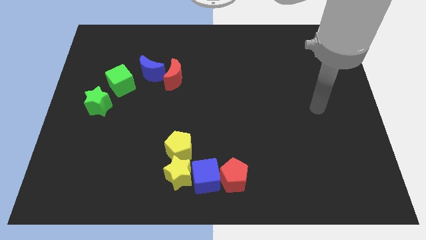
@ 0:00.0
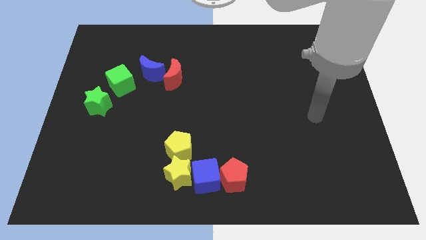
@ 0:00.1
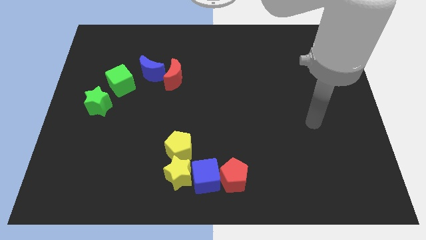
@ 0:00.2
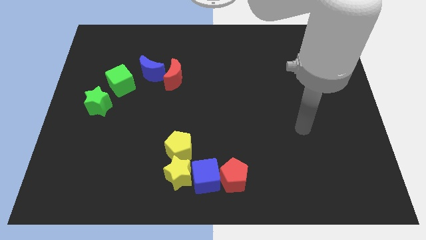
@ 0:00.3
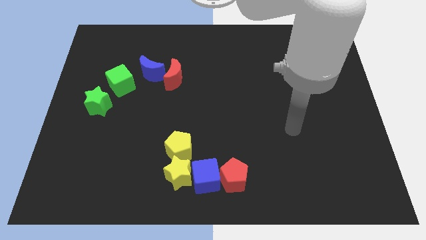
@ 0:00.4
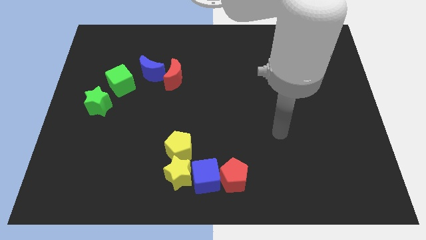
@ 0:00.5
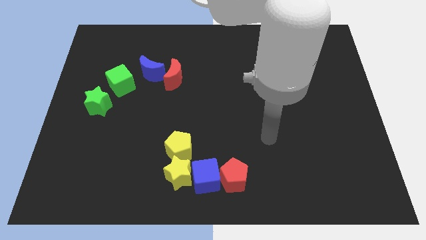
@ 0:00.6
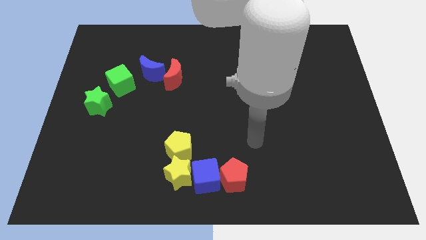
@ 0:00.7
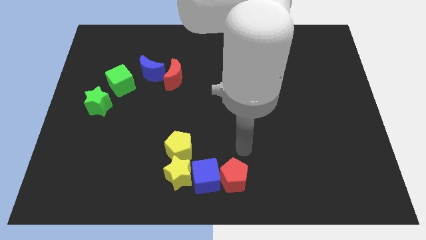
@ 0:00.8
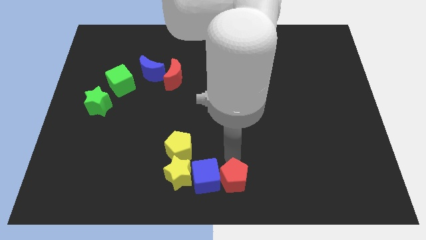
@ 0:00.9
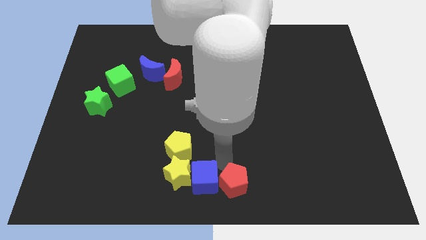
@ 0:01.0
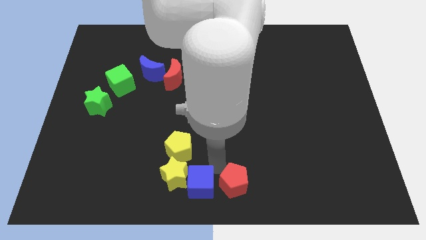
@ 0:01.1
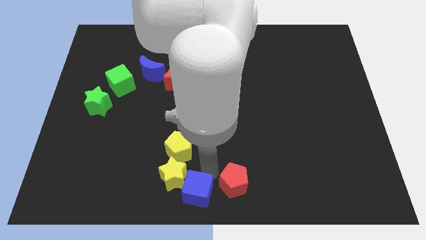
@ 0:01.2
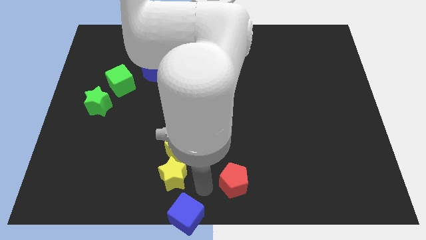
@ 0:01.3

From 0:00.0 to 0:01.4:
separate the red pentagon from the blue cube

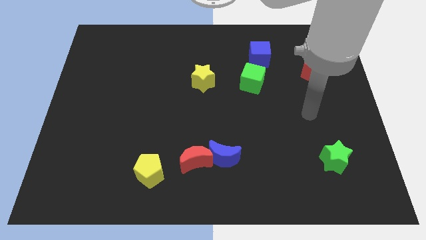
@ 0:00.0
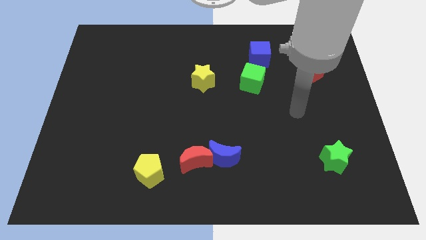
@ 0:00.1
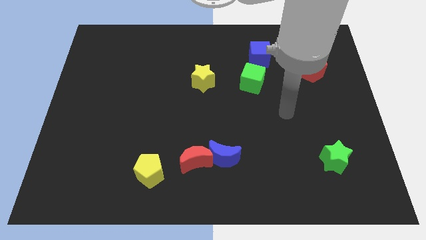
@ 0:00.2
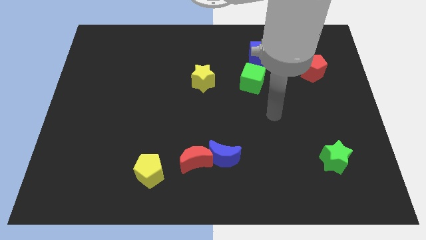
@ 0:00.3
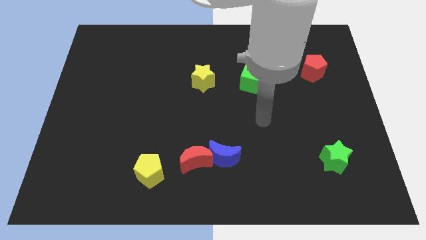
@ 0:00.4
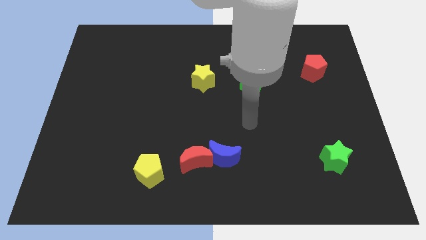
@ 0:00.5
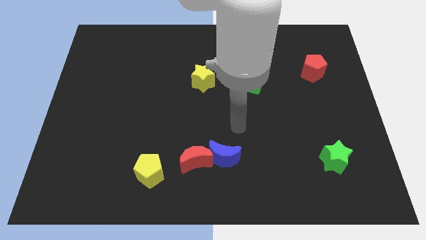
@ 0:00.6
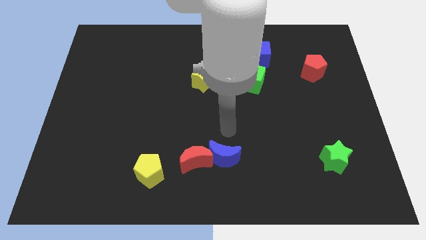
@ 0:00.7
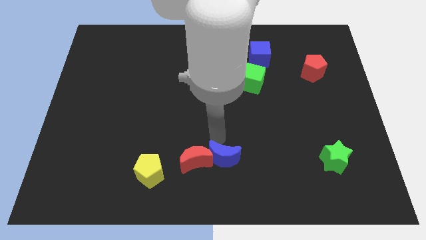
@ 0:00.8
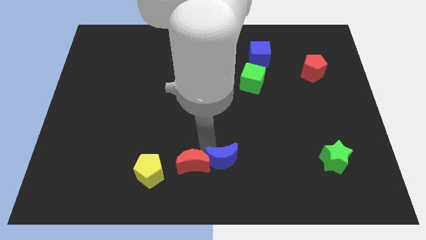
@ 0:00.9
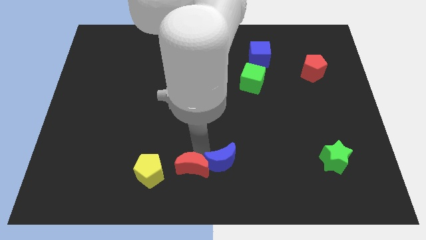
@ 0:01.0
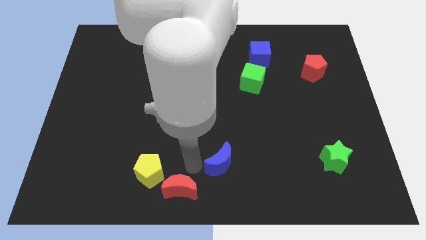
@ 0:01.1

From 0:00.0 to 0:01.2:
separate the blue moon from the red moon

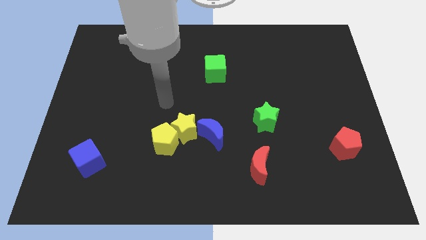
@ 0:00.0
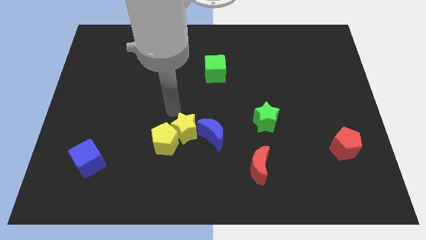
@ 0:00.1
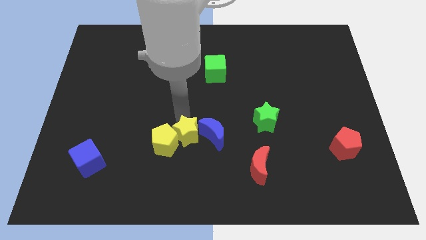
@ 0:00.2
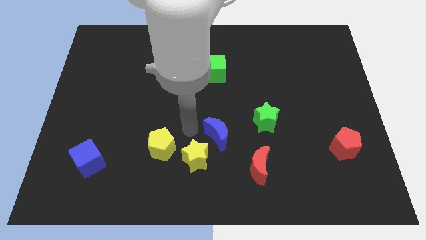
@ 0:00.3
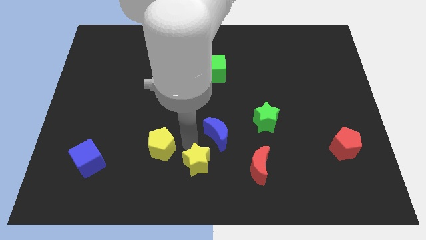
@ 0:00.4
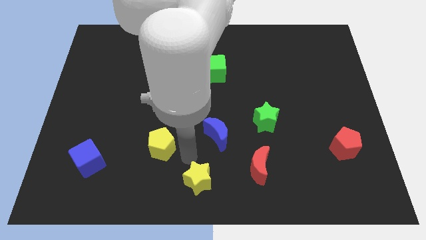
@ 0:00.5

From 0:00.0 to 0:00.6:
move the yellow pentagon away from the yellow star

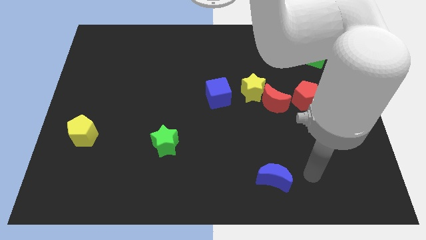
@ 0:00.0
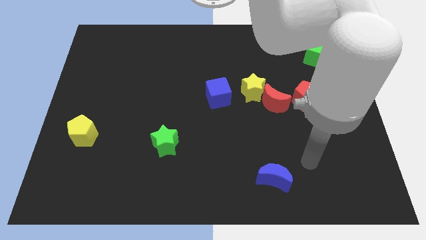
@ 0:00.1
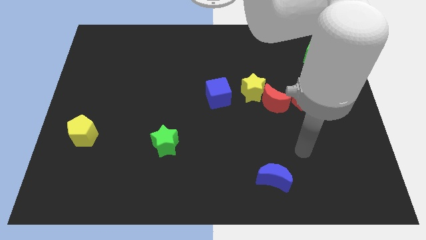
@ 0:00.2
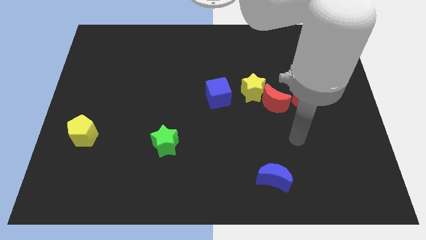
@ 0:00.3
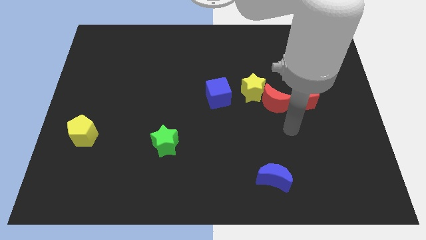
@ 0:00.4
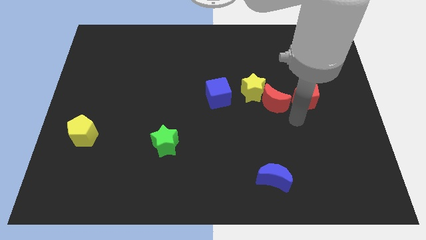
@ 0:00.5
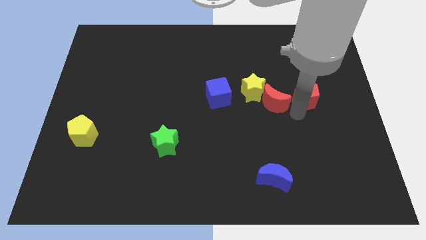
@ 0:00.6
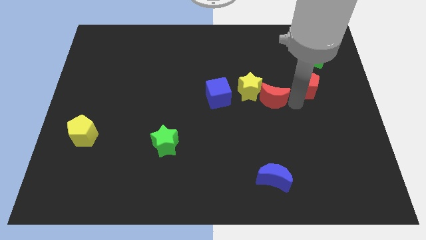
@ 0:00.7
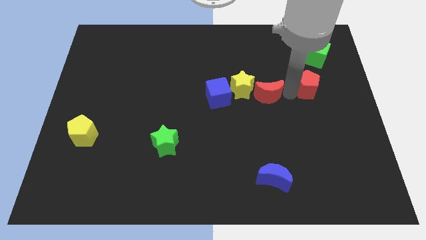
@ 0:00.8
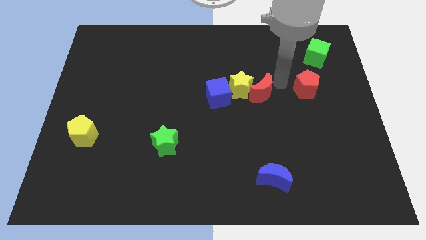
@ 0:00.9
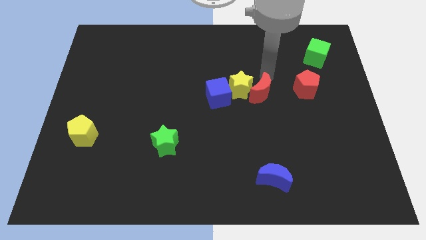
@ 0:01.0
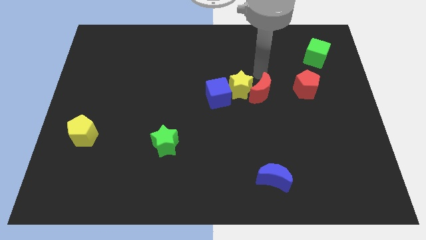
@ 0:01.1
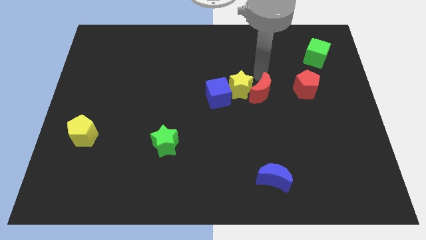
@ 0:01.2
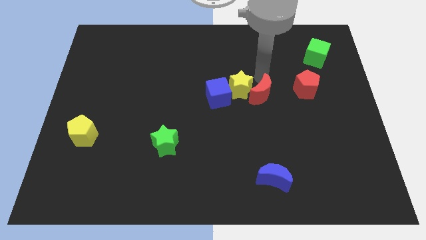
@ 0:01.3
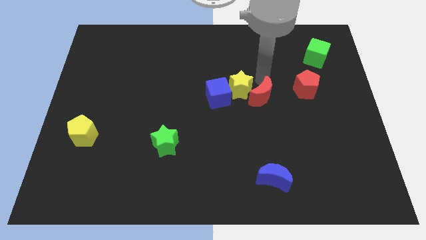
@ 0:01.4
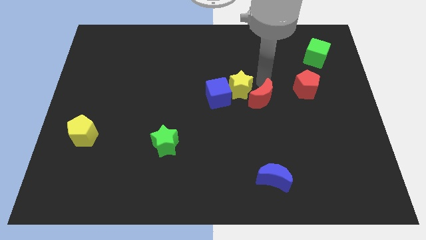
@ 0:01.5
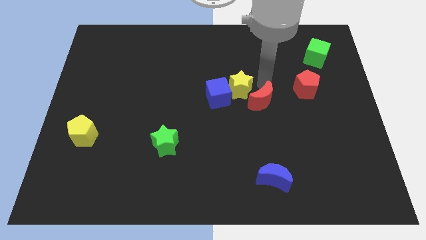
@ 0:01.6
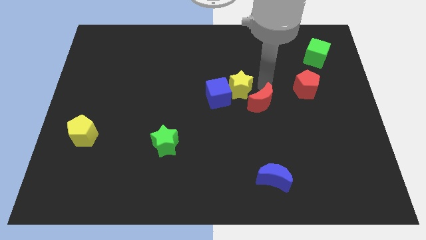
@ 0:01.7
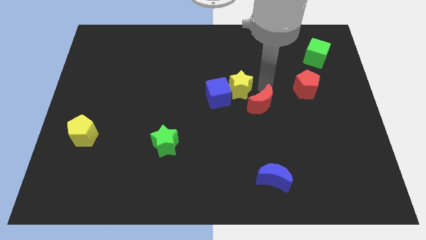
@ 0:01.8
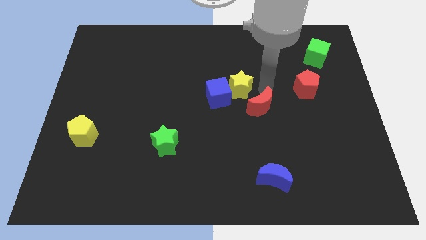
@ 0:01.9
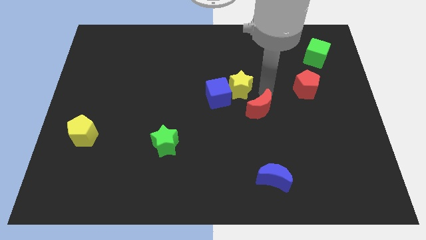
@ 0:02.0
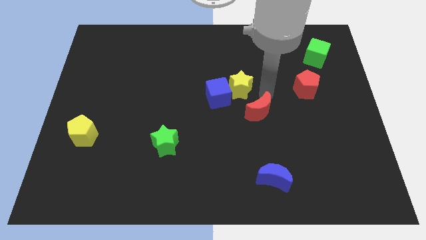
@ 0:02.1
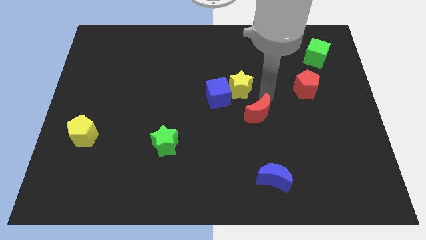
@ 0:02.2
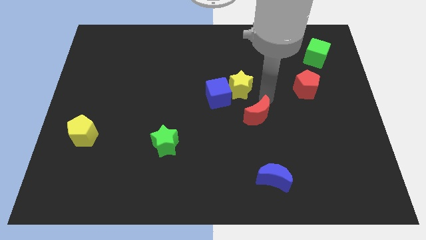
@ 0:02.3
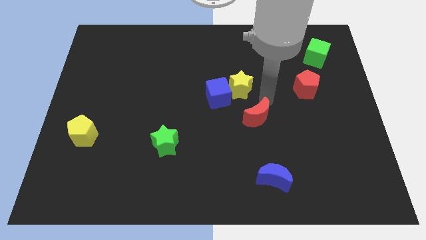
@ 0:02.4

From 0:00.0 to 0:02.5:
separate the red moon from the yellow star and red pentagon

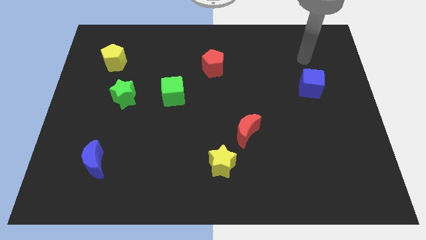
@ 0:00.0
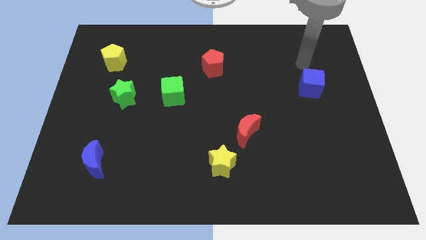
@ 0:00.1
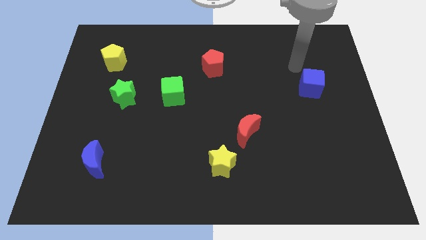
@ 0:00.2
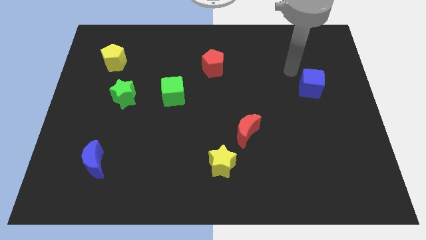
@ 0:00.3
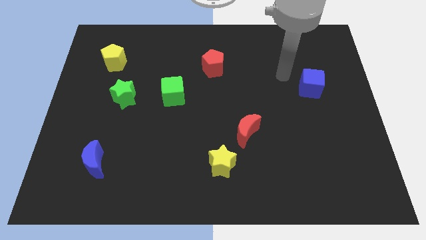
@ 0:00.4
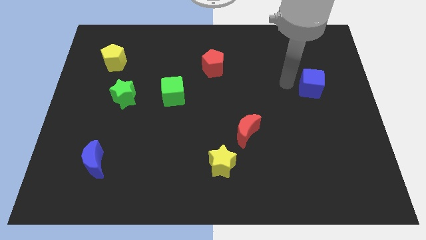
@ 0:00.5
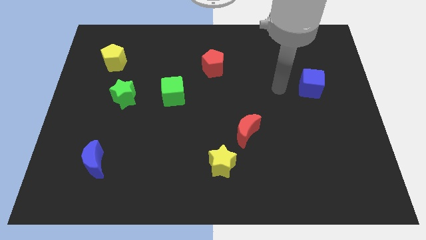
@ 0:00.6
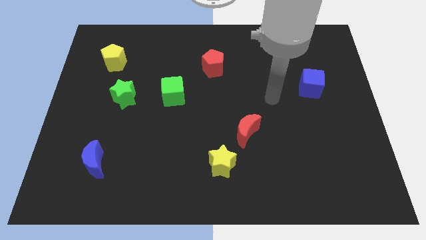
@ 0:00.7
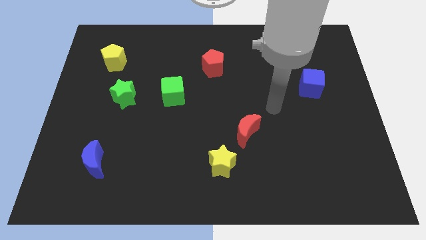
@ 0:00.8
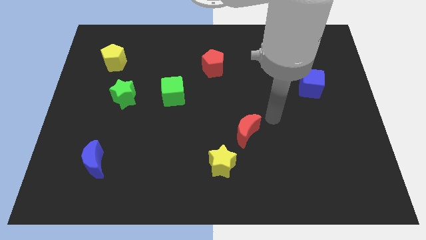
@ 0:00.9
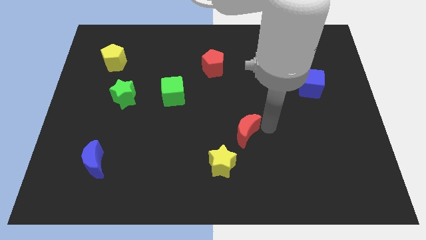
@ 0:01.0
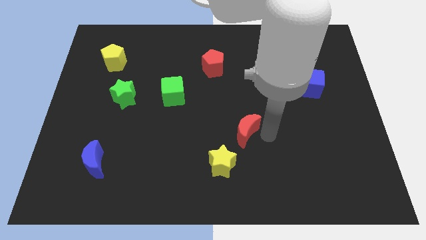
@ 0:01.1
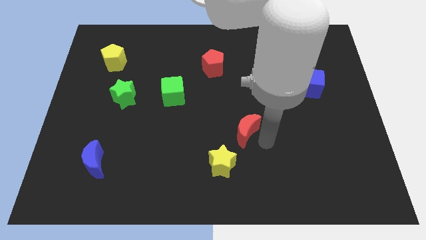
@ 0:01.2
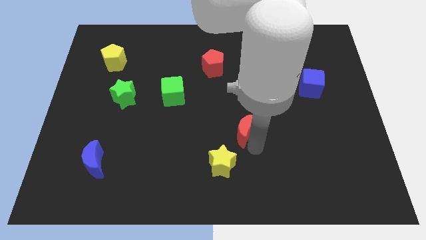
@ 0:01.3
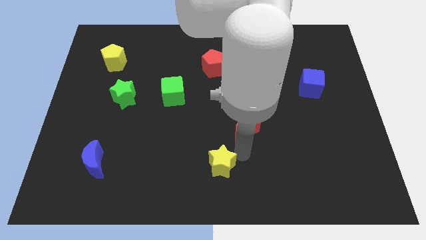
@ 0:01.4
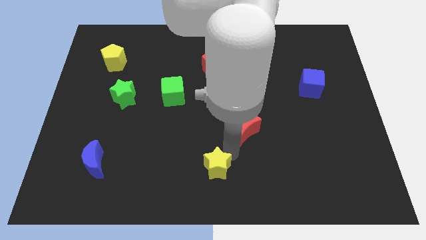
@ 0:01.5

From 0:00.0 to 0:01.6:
move the red moon away from the yellow star

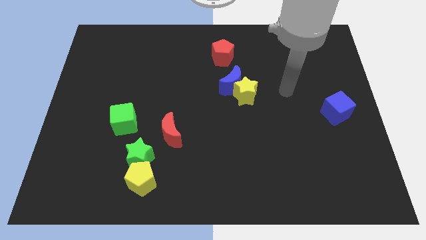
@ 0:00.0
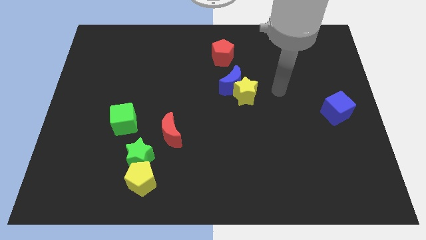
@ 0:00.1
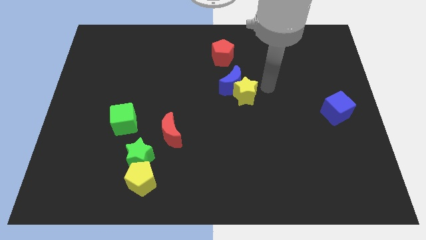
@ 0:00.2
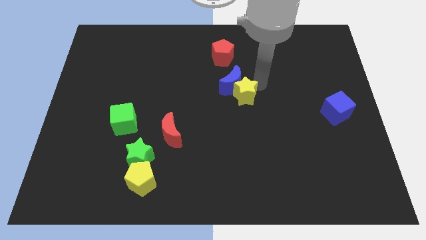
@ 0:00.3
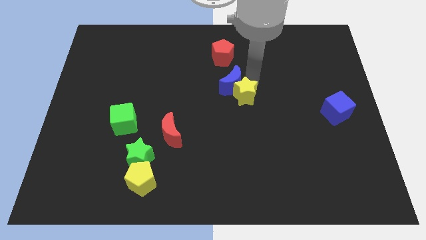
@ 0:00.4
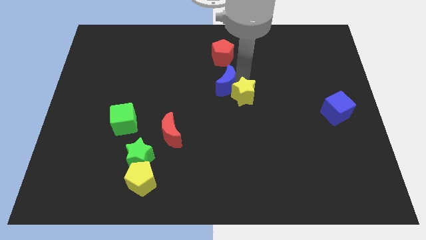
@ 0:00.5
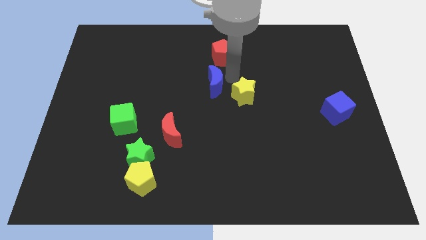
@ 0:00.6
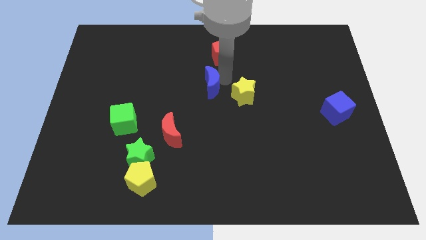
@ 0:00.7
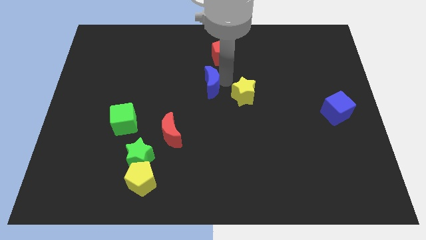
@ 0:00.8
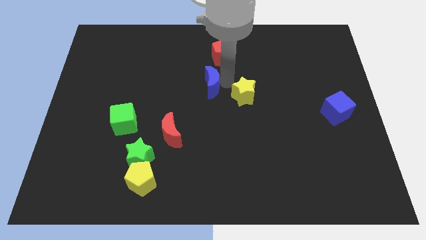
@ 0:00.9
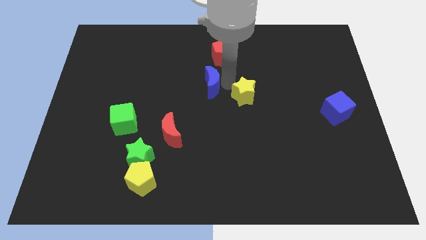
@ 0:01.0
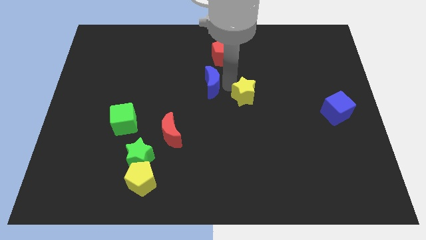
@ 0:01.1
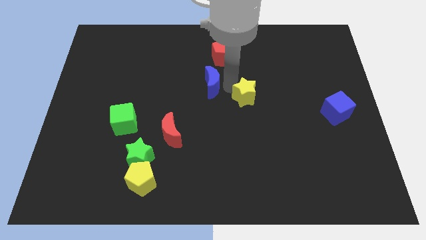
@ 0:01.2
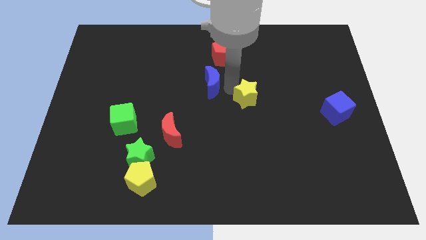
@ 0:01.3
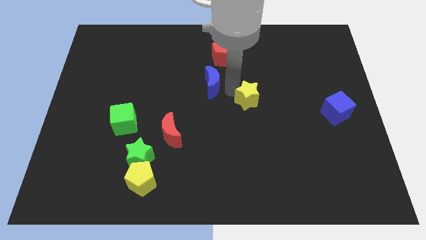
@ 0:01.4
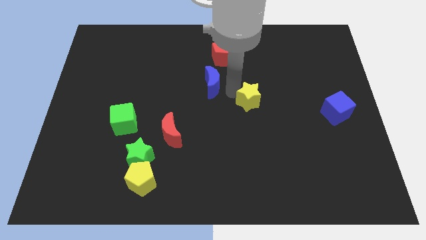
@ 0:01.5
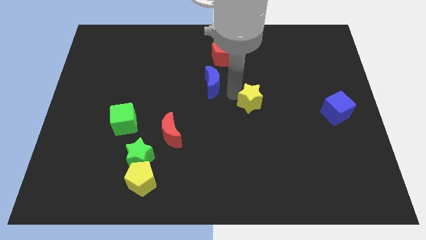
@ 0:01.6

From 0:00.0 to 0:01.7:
pull the yellow star apart from the blue moon

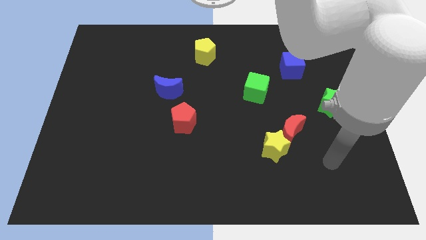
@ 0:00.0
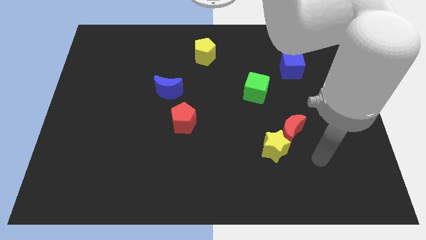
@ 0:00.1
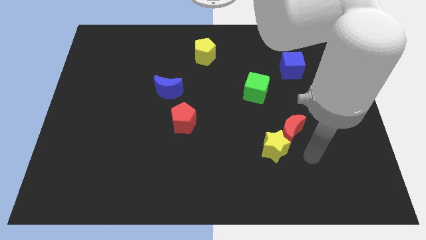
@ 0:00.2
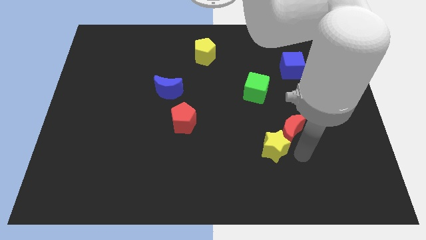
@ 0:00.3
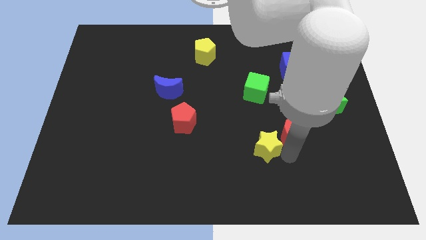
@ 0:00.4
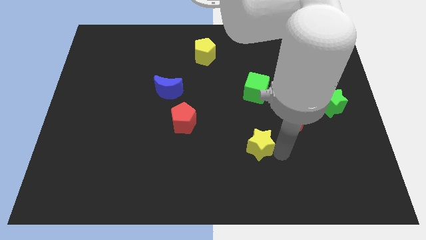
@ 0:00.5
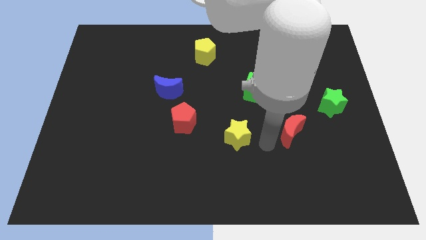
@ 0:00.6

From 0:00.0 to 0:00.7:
pull the red moon apart from the yellow star